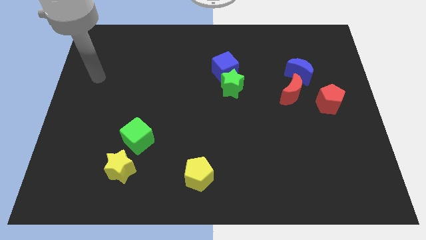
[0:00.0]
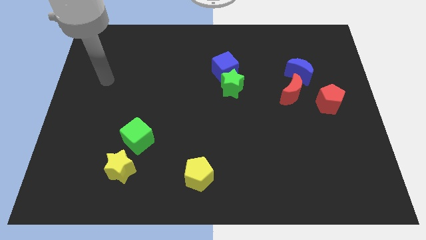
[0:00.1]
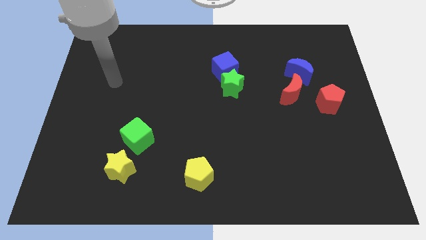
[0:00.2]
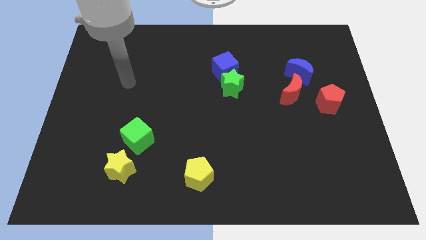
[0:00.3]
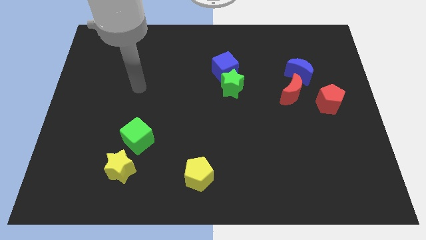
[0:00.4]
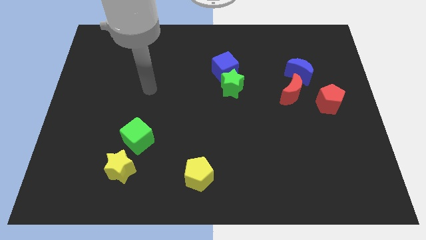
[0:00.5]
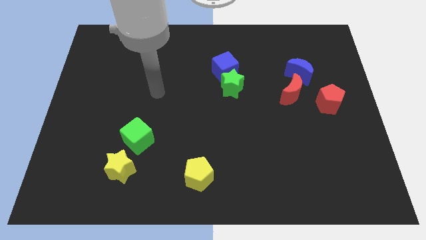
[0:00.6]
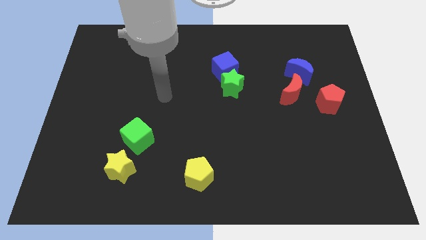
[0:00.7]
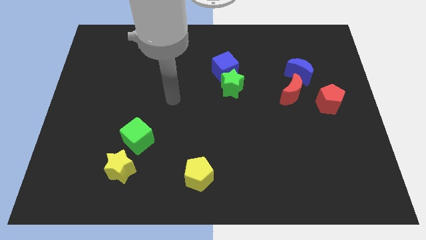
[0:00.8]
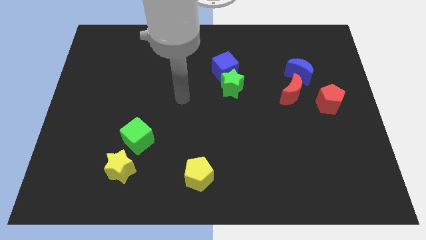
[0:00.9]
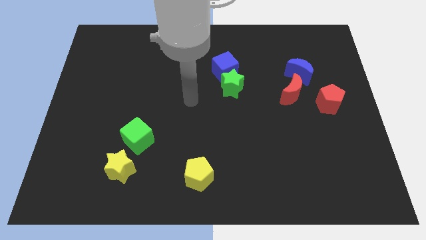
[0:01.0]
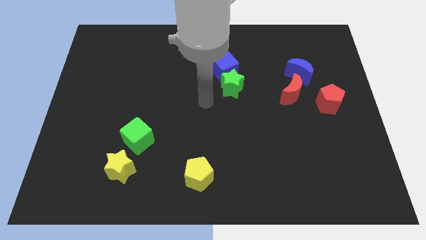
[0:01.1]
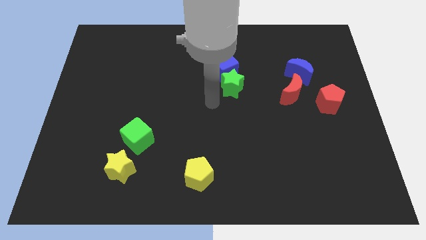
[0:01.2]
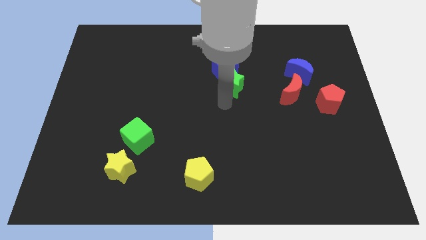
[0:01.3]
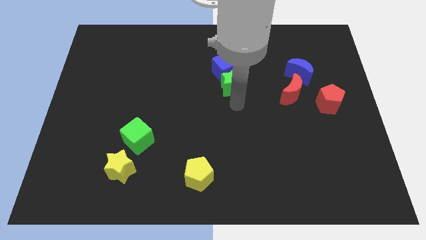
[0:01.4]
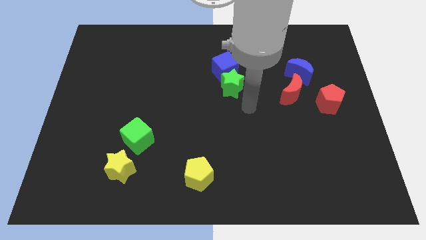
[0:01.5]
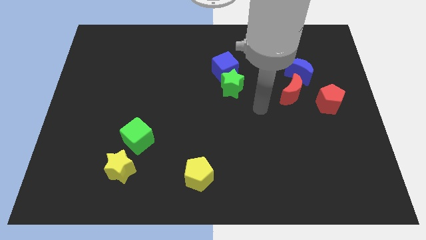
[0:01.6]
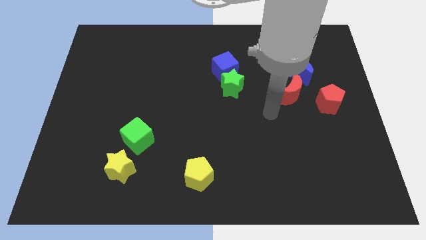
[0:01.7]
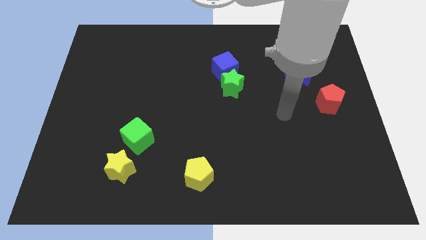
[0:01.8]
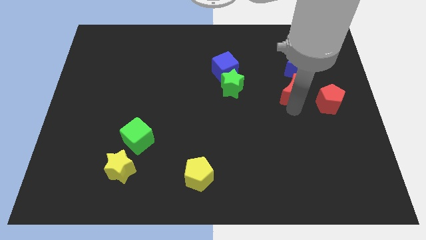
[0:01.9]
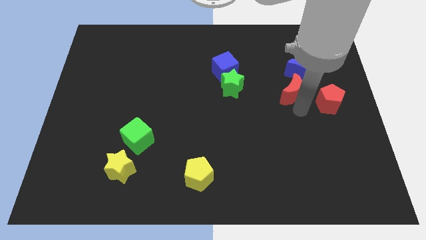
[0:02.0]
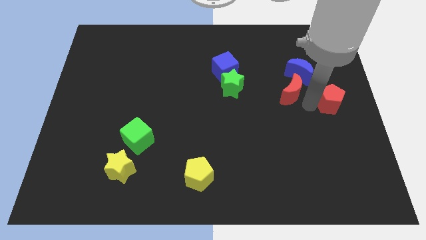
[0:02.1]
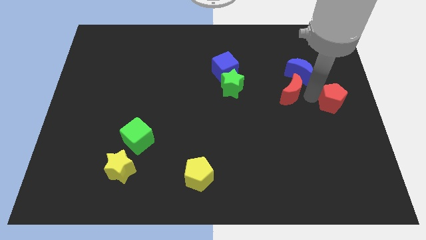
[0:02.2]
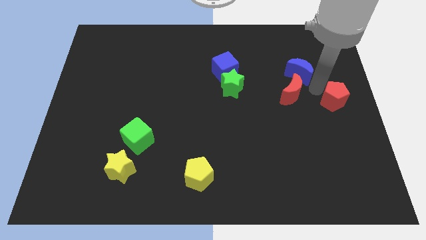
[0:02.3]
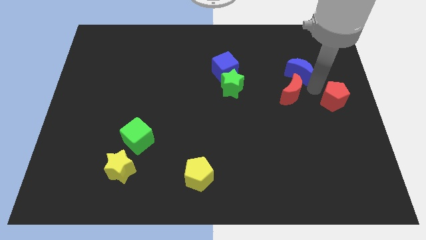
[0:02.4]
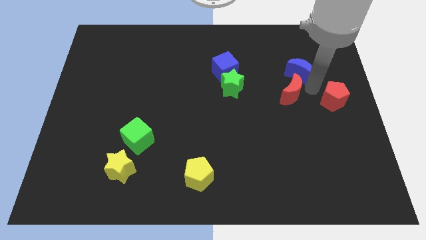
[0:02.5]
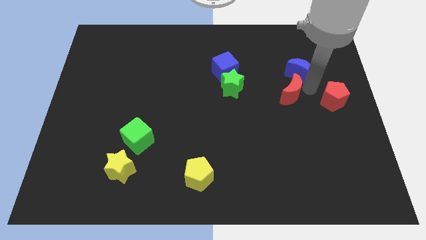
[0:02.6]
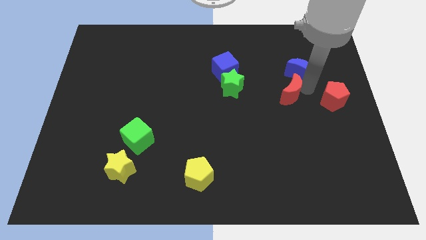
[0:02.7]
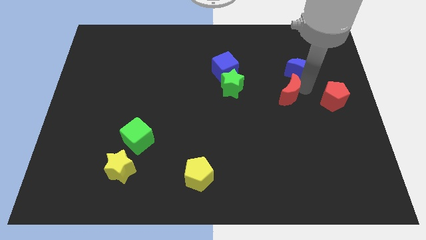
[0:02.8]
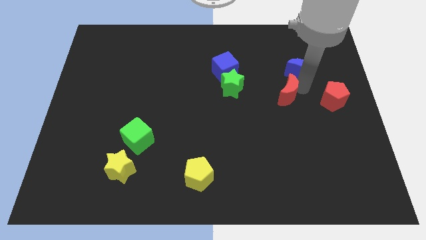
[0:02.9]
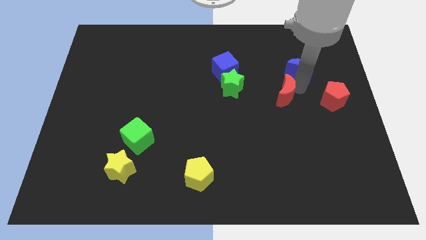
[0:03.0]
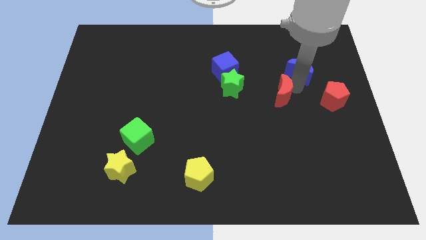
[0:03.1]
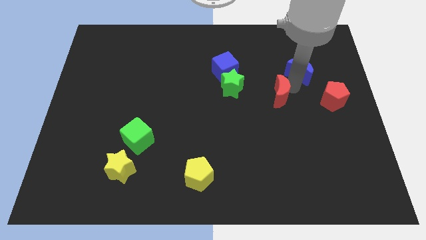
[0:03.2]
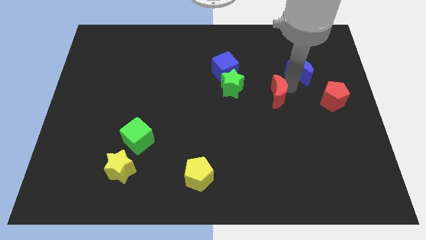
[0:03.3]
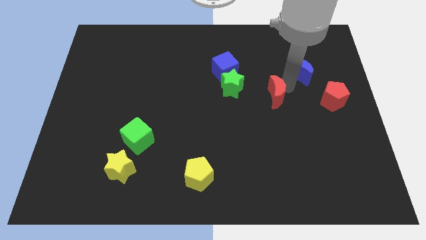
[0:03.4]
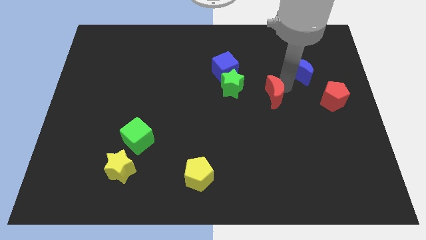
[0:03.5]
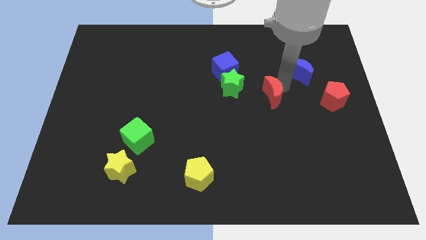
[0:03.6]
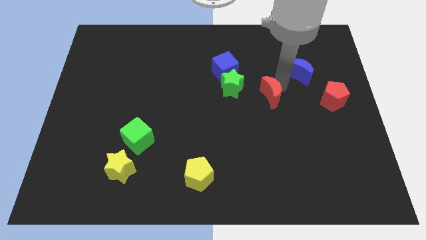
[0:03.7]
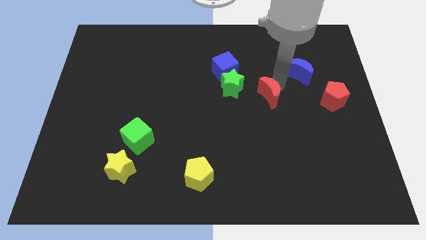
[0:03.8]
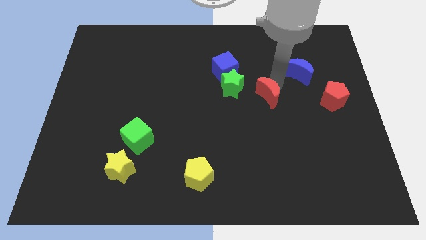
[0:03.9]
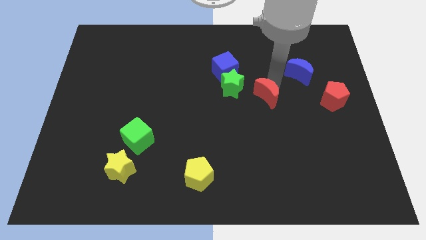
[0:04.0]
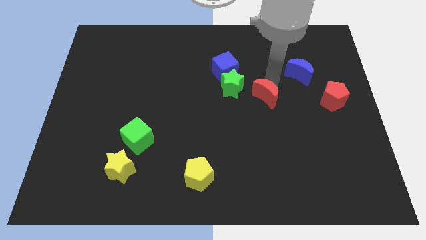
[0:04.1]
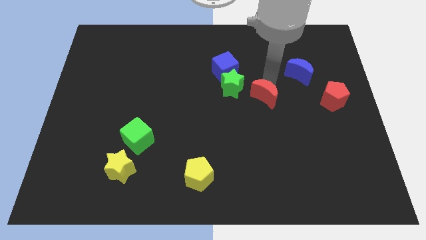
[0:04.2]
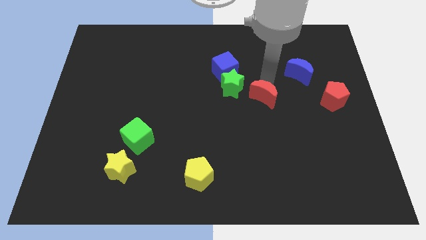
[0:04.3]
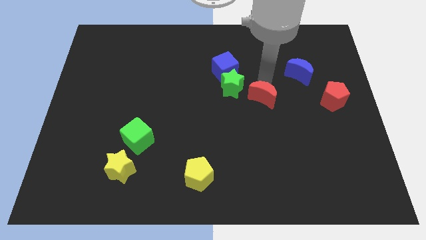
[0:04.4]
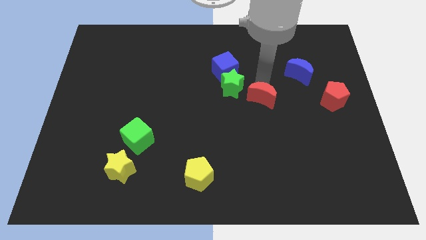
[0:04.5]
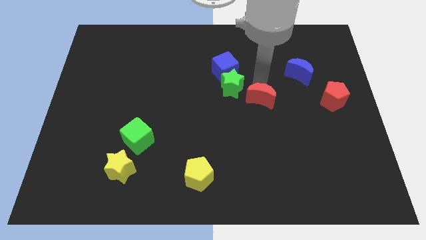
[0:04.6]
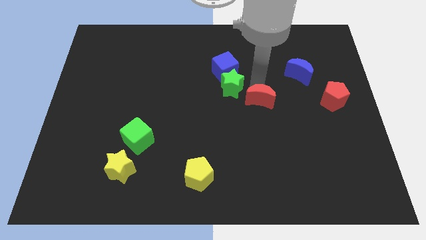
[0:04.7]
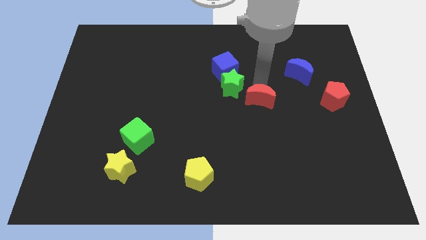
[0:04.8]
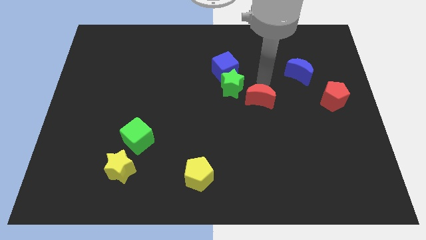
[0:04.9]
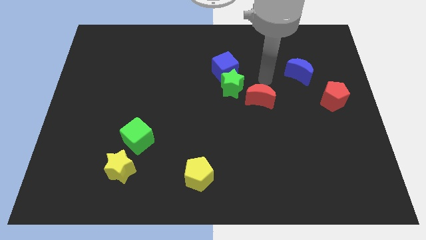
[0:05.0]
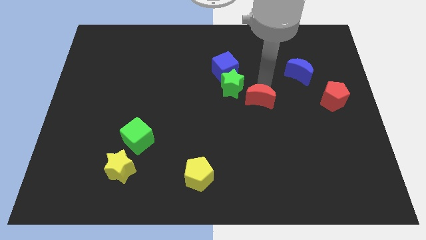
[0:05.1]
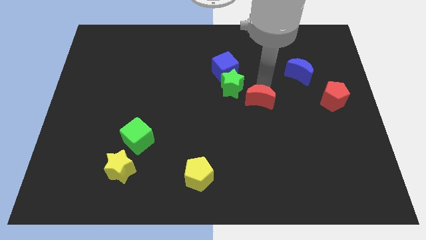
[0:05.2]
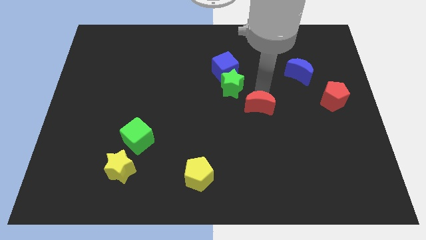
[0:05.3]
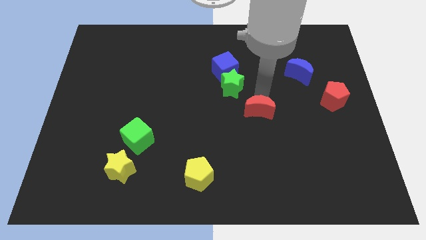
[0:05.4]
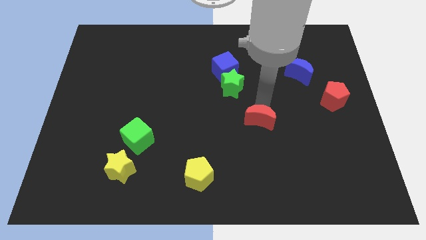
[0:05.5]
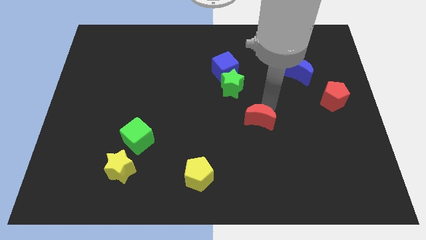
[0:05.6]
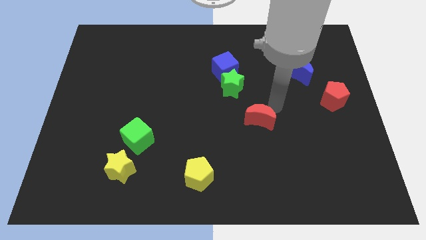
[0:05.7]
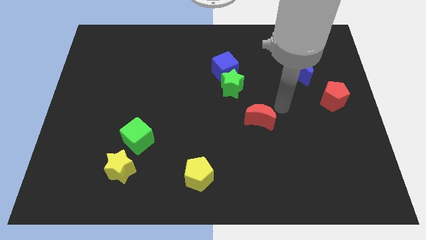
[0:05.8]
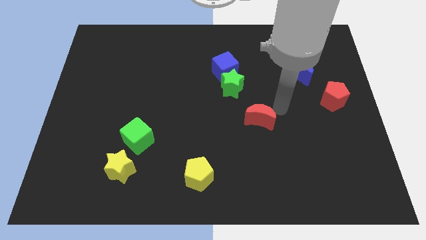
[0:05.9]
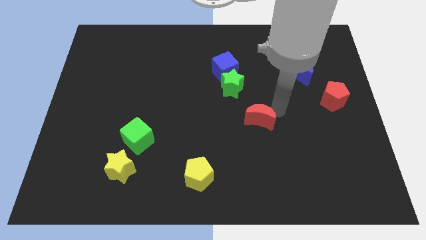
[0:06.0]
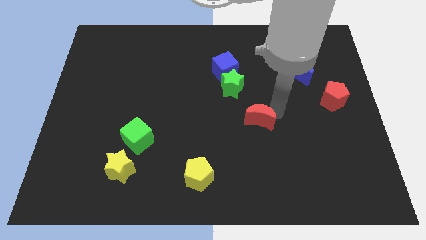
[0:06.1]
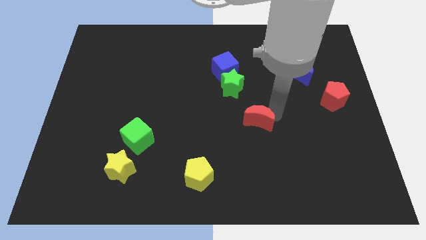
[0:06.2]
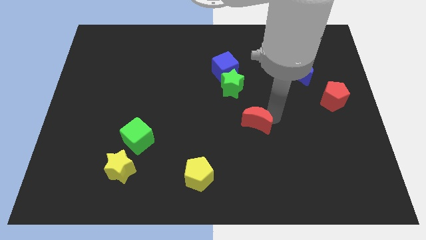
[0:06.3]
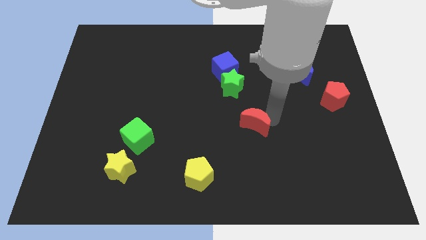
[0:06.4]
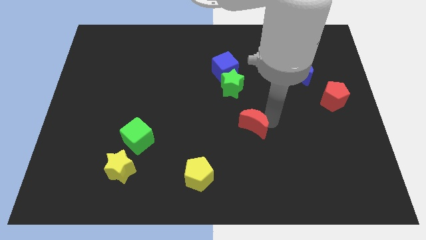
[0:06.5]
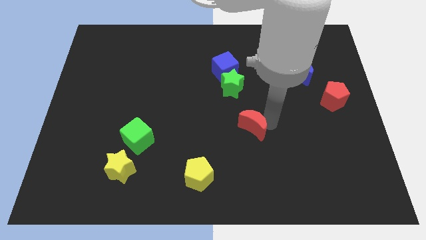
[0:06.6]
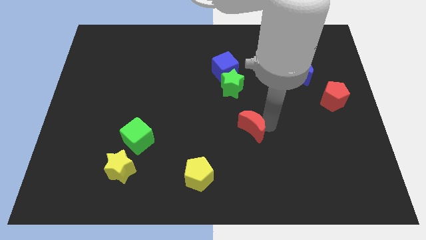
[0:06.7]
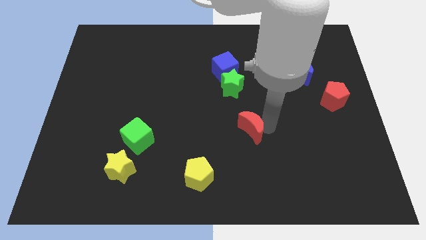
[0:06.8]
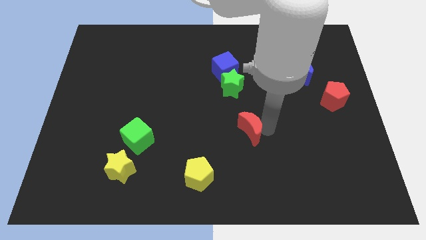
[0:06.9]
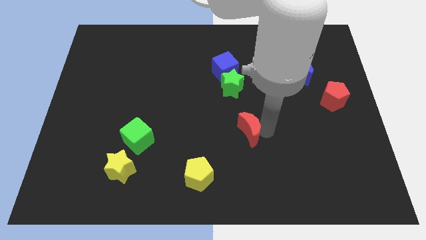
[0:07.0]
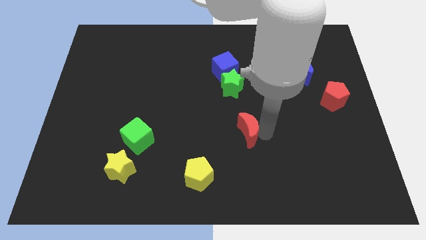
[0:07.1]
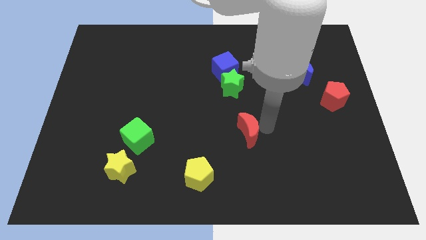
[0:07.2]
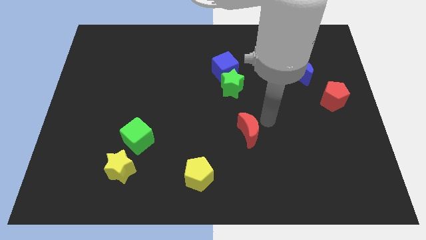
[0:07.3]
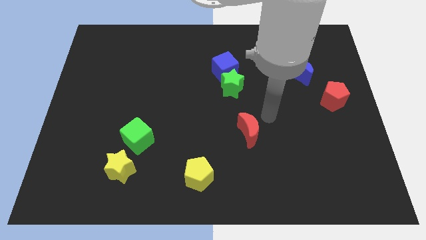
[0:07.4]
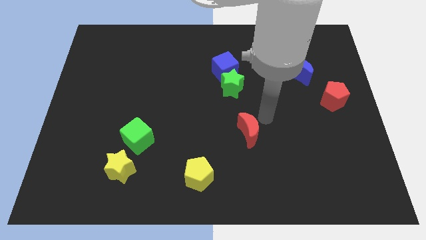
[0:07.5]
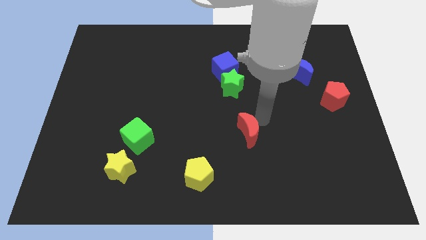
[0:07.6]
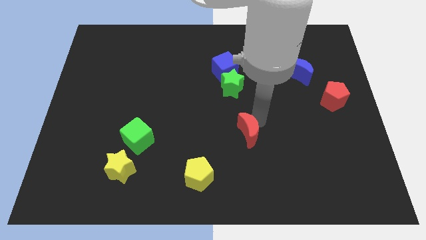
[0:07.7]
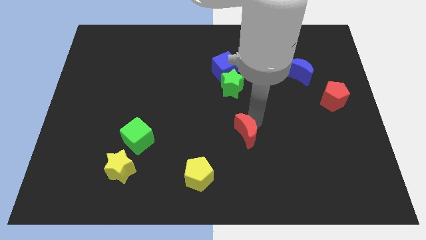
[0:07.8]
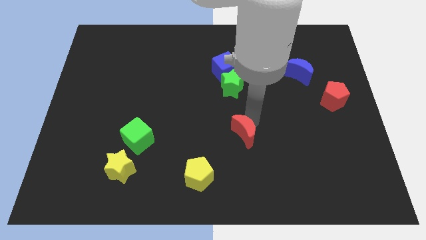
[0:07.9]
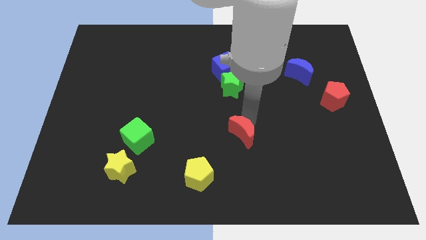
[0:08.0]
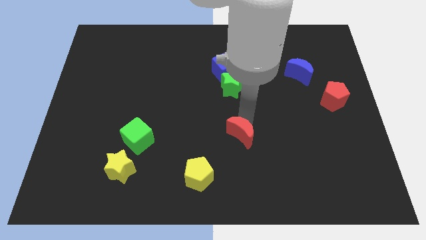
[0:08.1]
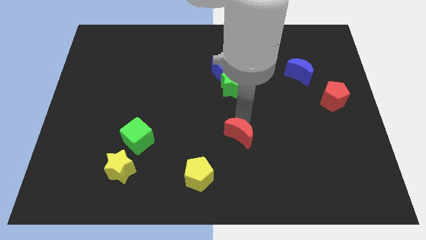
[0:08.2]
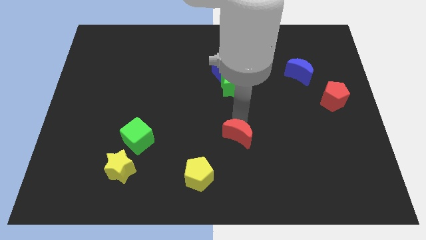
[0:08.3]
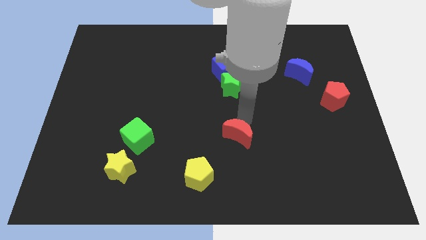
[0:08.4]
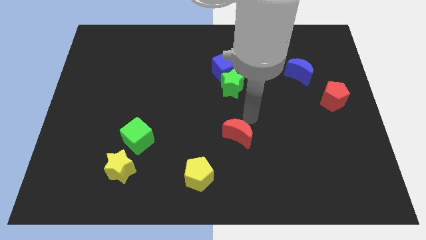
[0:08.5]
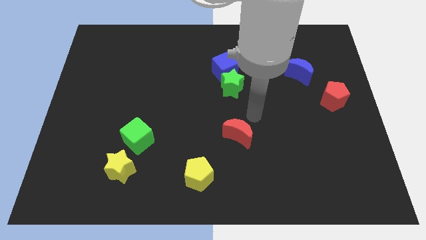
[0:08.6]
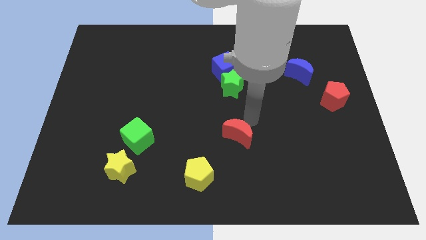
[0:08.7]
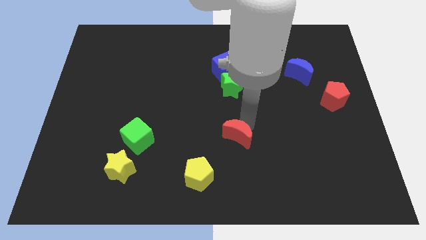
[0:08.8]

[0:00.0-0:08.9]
slide the red moon to the top right side of the yellow pentagon
